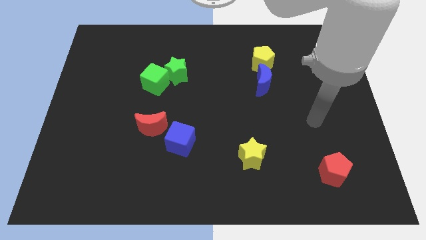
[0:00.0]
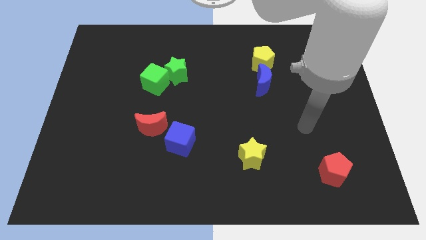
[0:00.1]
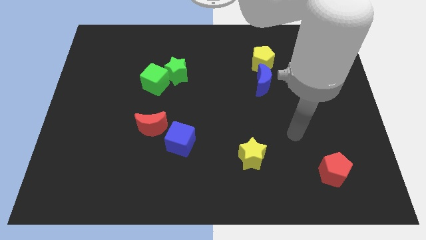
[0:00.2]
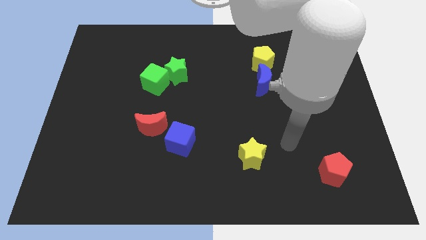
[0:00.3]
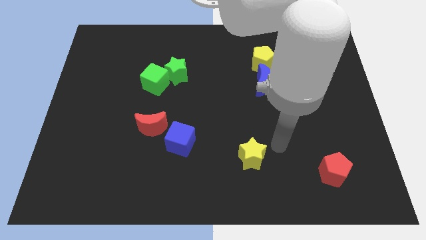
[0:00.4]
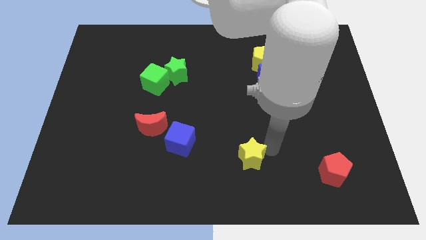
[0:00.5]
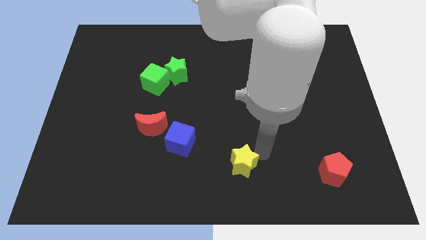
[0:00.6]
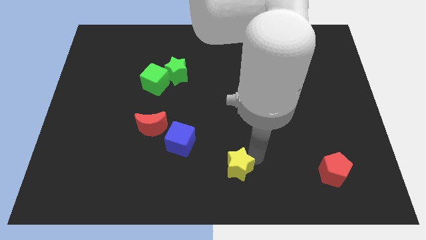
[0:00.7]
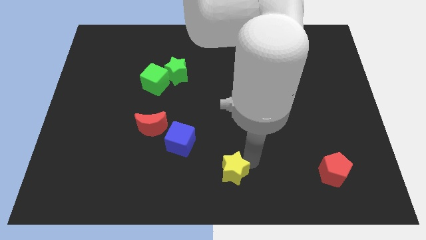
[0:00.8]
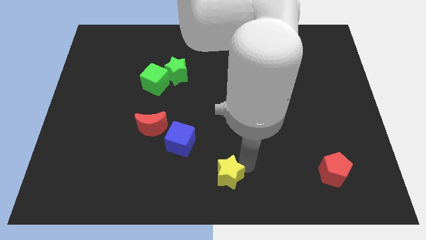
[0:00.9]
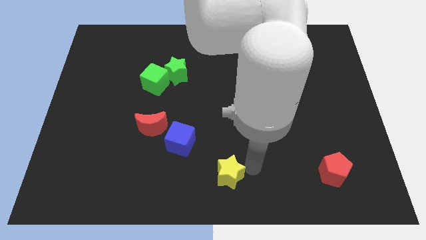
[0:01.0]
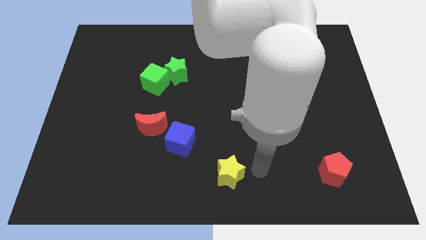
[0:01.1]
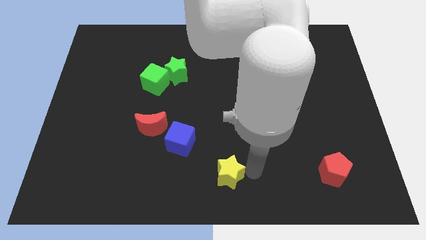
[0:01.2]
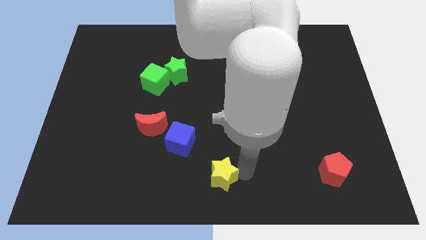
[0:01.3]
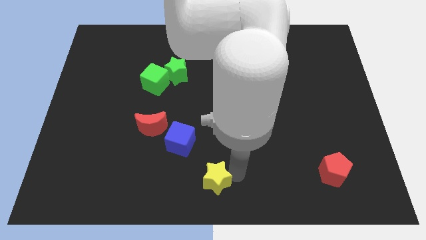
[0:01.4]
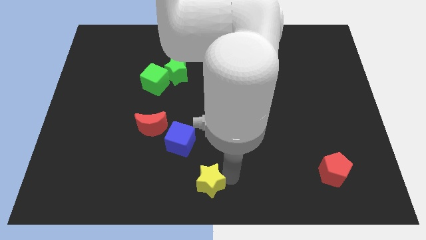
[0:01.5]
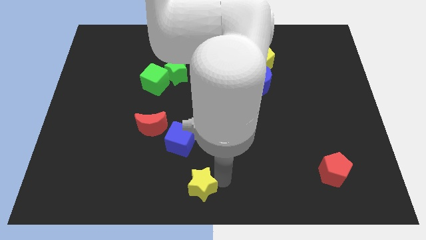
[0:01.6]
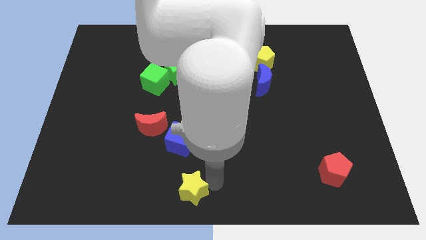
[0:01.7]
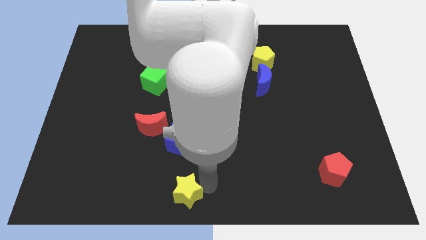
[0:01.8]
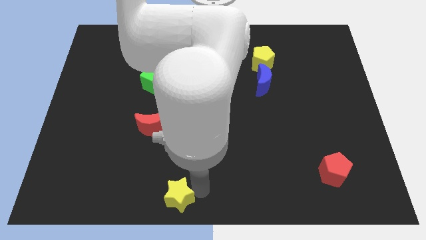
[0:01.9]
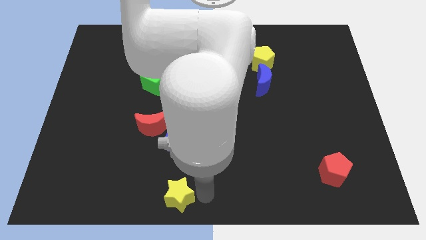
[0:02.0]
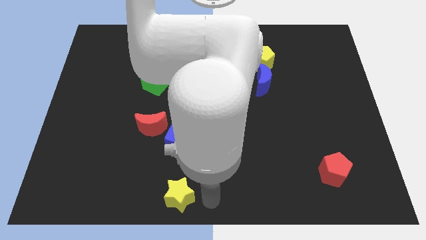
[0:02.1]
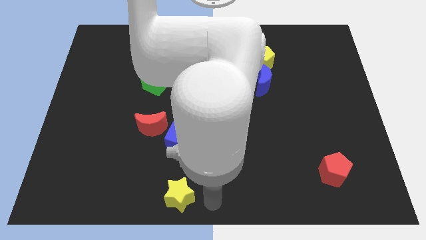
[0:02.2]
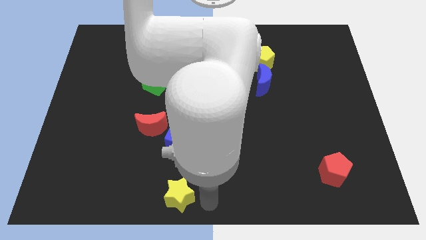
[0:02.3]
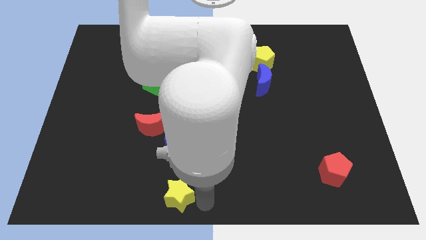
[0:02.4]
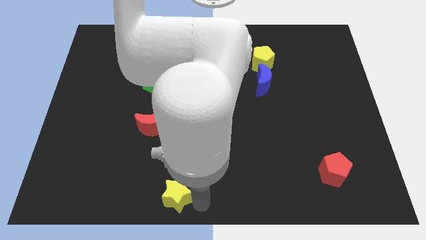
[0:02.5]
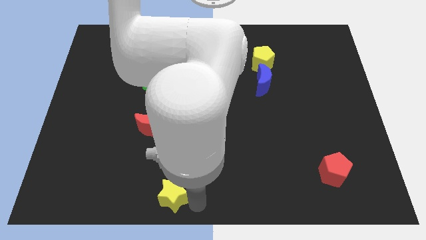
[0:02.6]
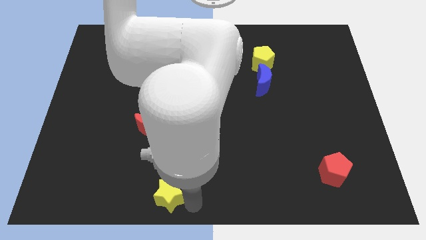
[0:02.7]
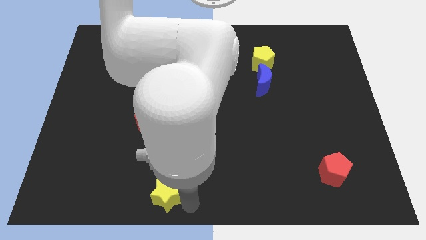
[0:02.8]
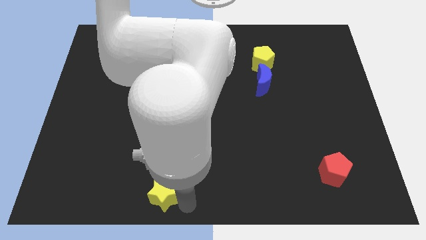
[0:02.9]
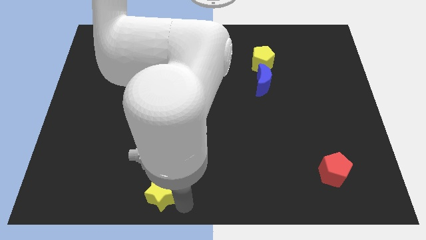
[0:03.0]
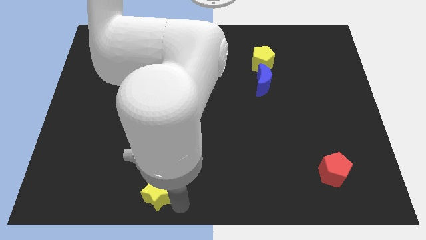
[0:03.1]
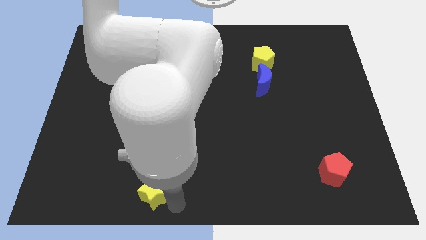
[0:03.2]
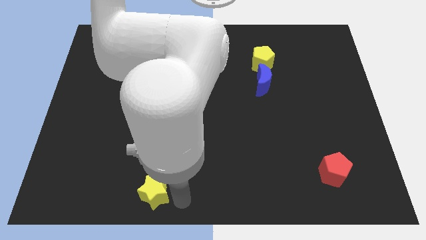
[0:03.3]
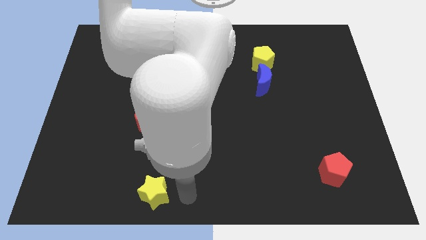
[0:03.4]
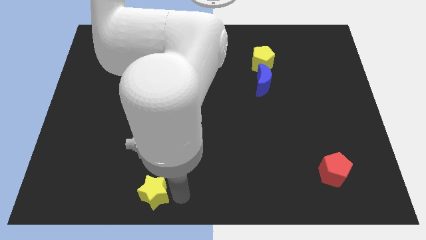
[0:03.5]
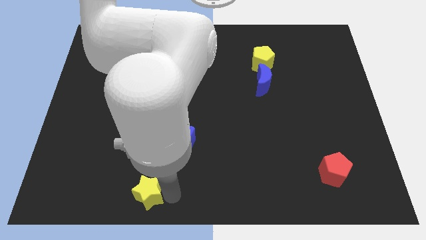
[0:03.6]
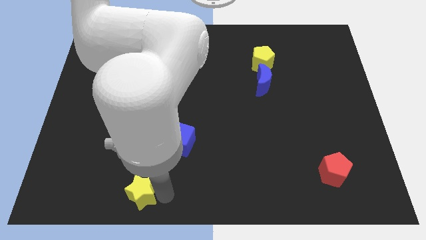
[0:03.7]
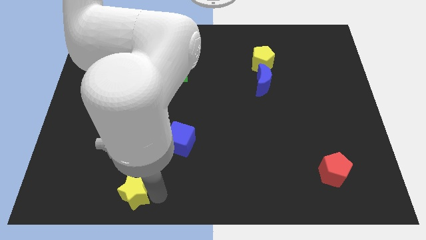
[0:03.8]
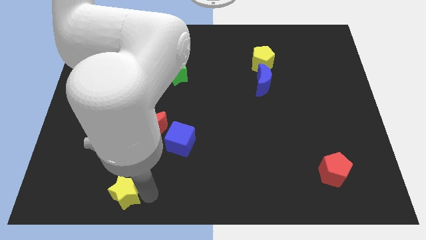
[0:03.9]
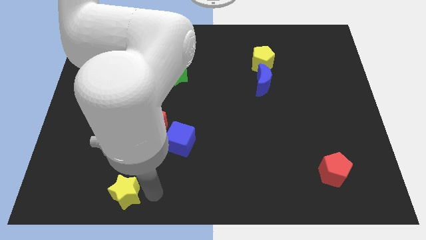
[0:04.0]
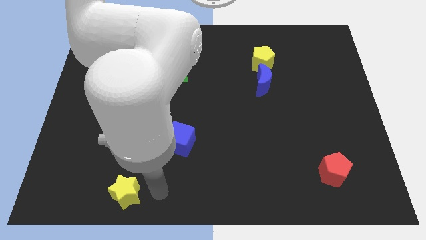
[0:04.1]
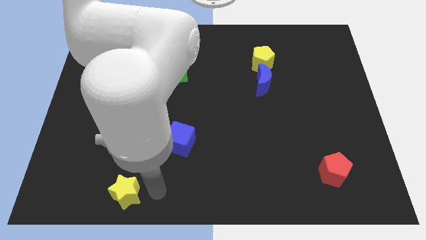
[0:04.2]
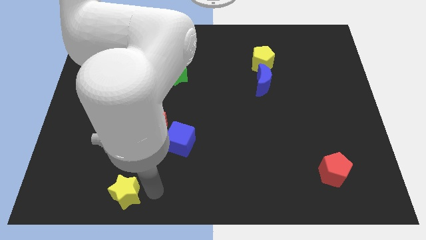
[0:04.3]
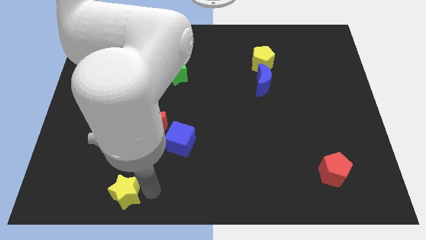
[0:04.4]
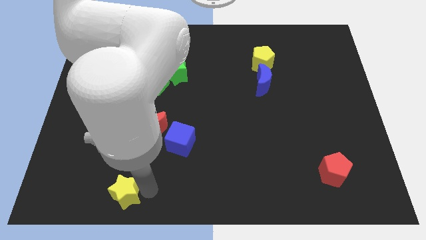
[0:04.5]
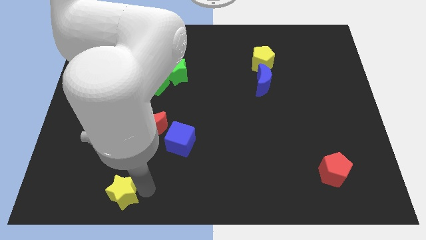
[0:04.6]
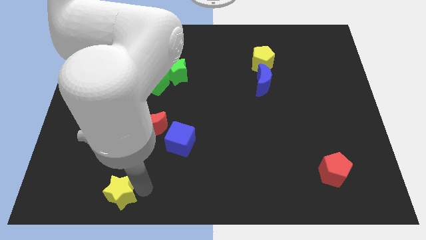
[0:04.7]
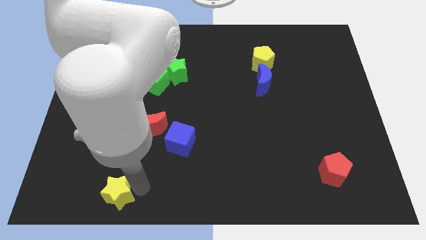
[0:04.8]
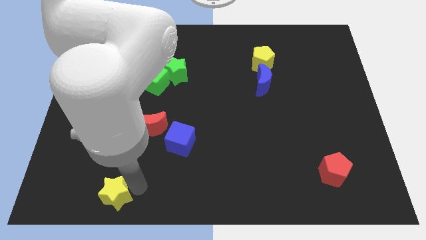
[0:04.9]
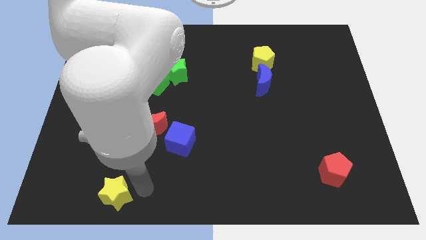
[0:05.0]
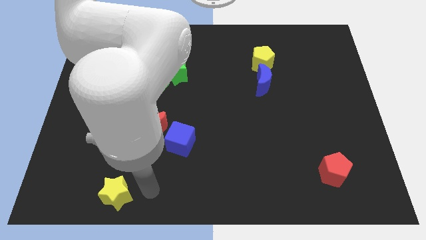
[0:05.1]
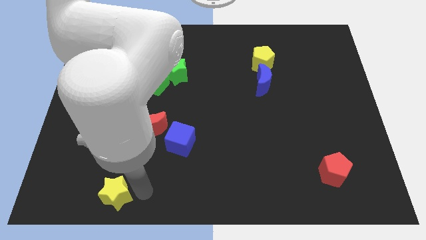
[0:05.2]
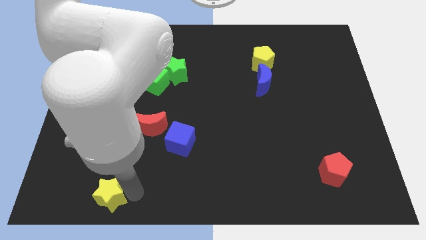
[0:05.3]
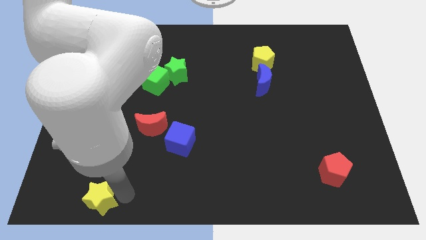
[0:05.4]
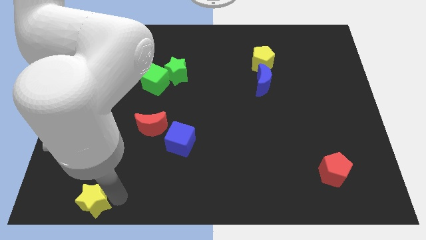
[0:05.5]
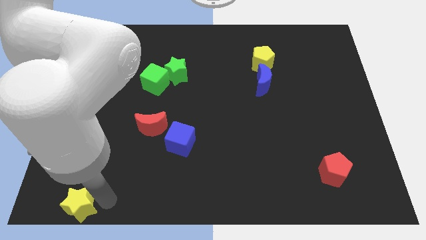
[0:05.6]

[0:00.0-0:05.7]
move the yellow star to the bottom left of the board

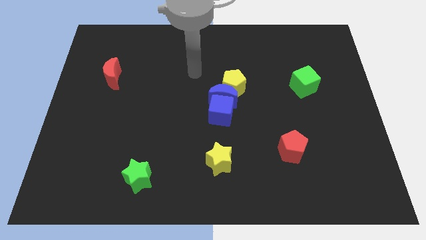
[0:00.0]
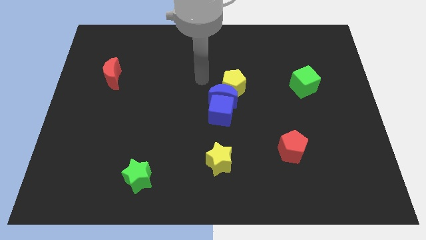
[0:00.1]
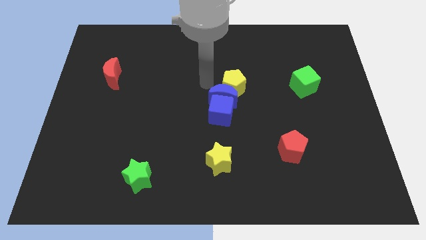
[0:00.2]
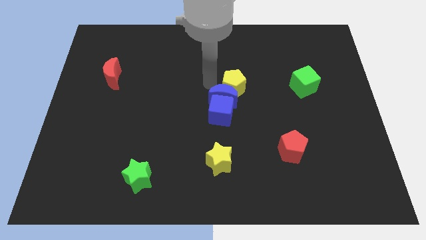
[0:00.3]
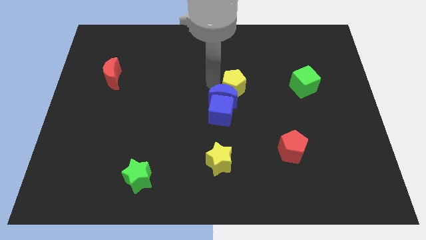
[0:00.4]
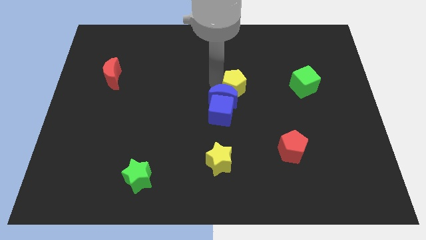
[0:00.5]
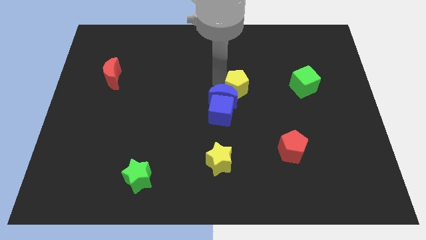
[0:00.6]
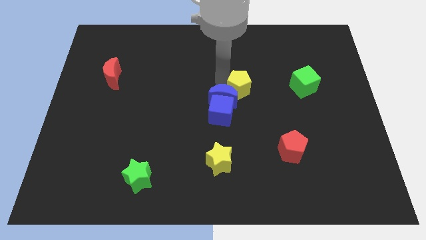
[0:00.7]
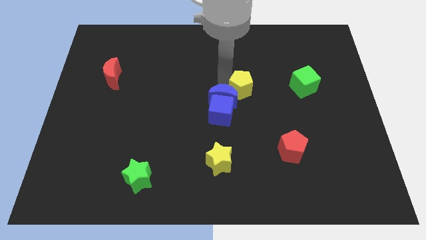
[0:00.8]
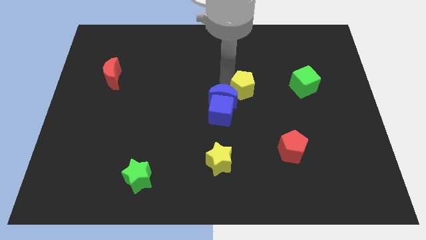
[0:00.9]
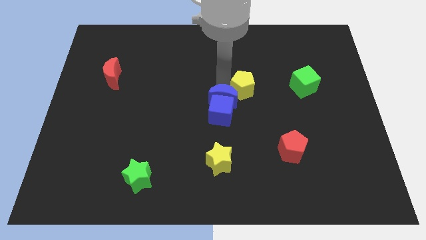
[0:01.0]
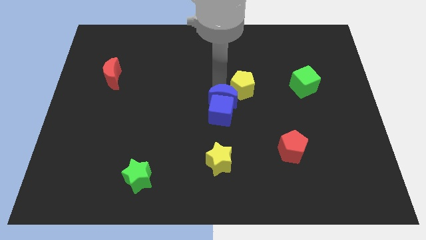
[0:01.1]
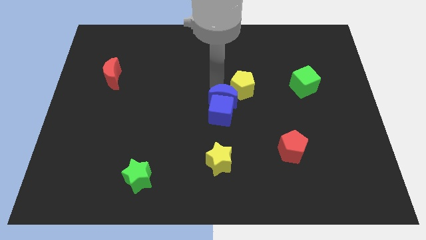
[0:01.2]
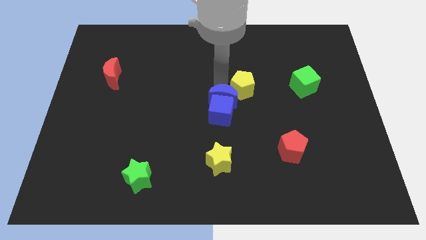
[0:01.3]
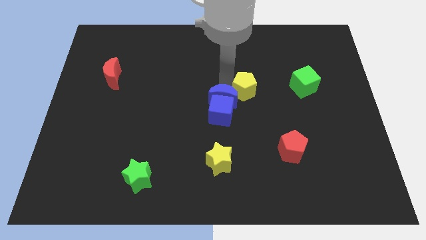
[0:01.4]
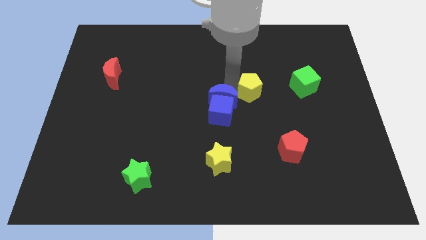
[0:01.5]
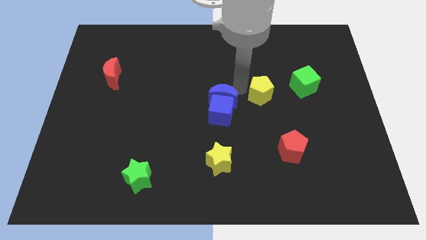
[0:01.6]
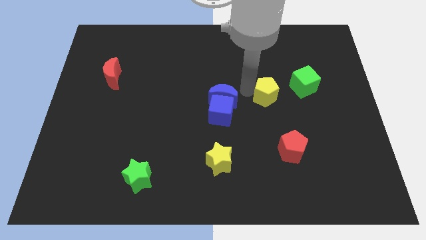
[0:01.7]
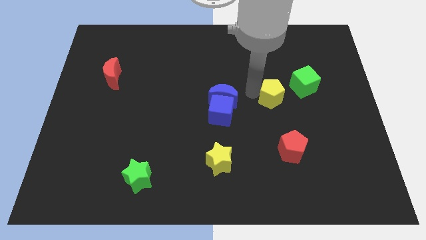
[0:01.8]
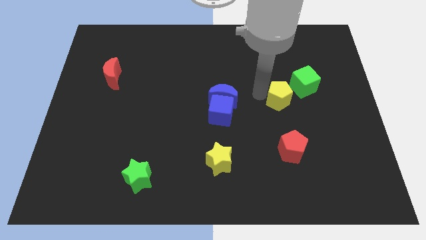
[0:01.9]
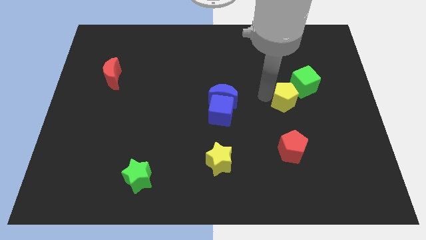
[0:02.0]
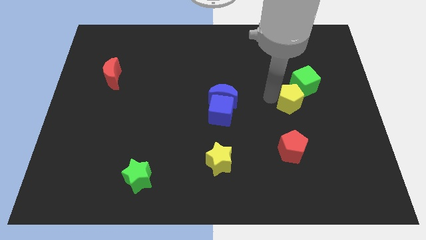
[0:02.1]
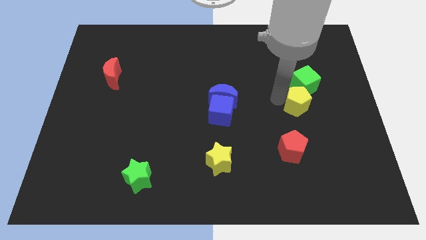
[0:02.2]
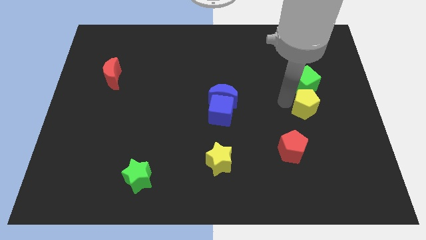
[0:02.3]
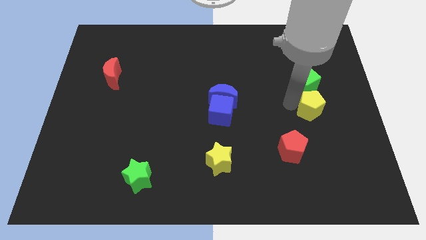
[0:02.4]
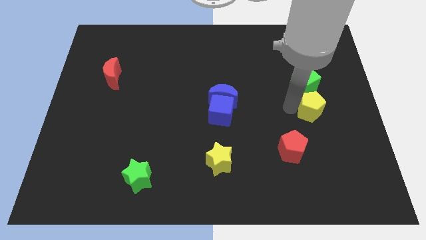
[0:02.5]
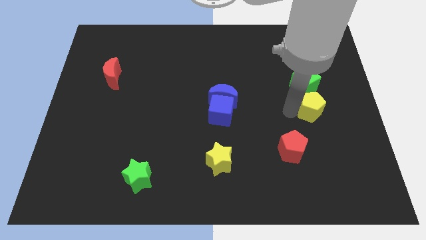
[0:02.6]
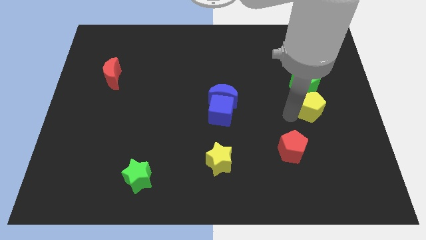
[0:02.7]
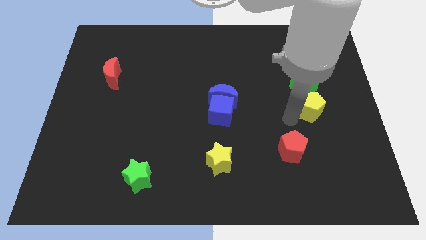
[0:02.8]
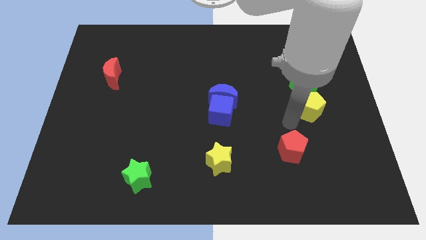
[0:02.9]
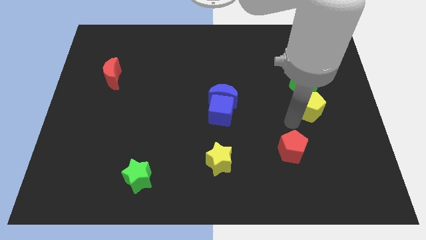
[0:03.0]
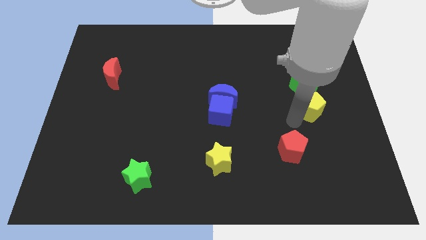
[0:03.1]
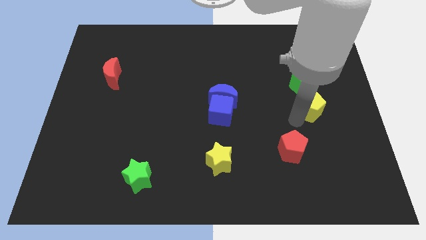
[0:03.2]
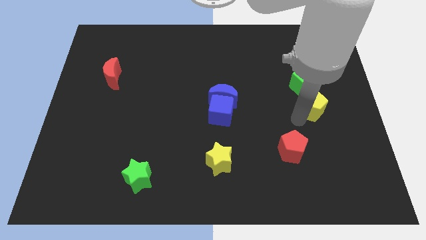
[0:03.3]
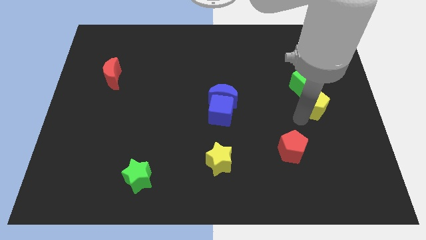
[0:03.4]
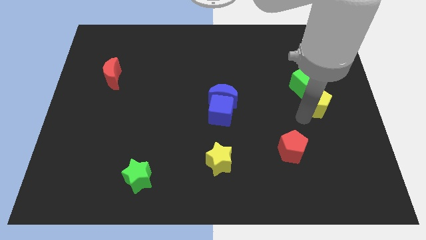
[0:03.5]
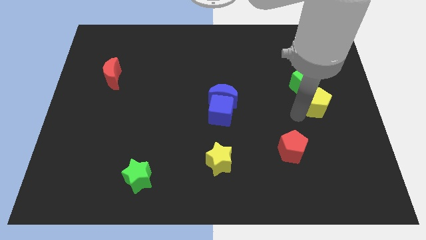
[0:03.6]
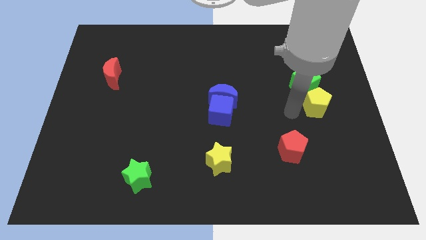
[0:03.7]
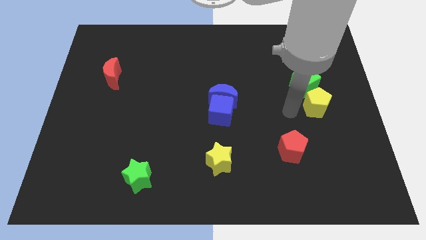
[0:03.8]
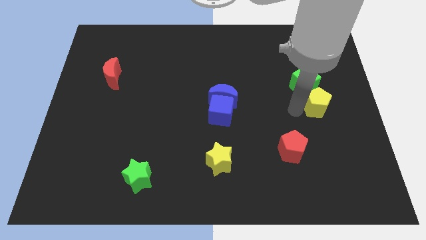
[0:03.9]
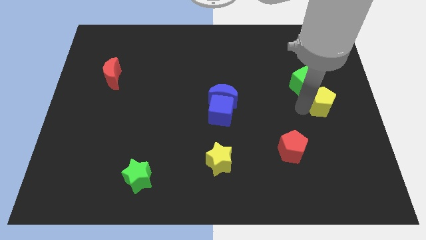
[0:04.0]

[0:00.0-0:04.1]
move the yellow pentagon to the right side of the board
